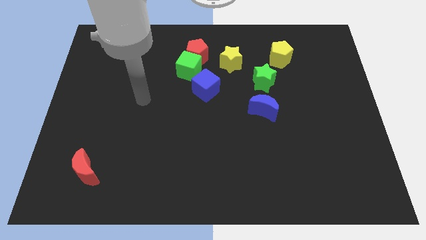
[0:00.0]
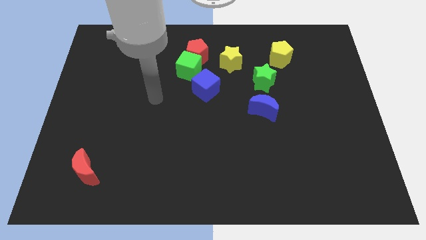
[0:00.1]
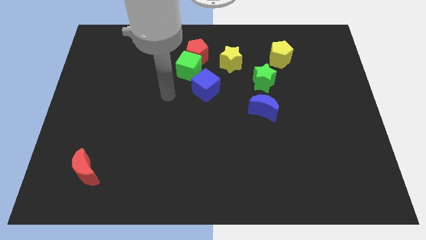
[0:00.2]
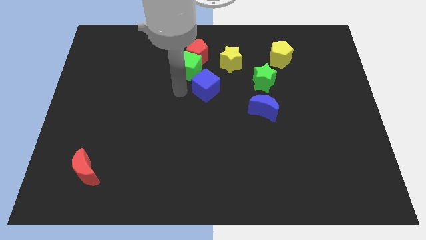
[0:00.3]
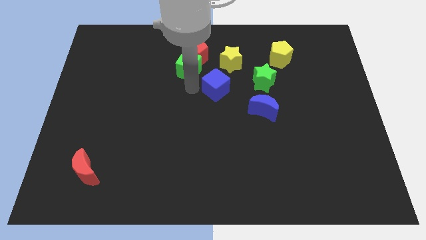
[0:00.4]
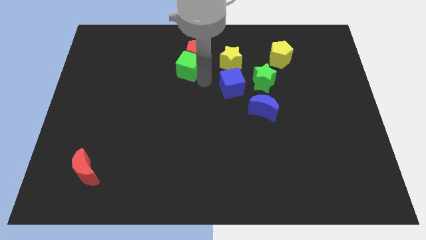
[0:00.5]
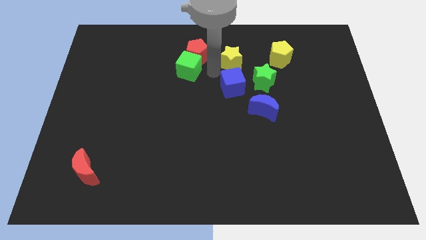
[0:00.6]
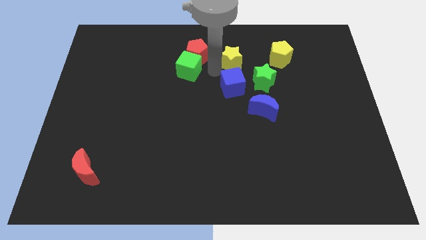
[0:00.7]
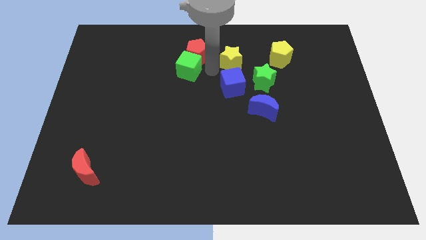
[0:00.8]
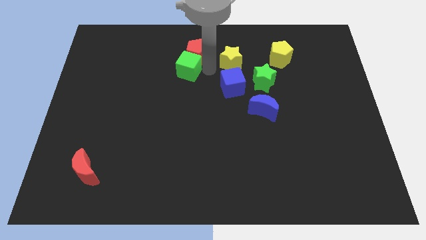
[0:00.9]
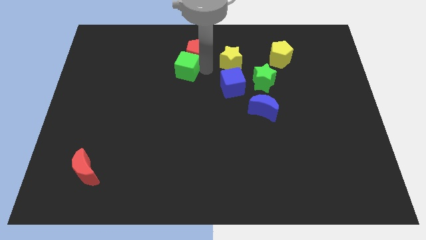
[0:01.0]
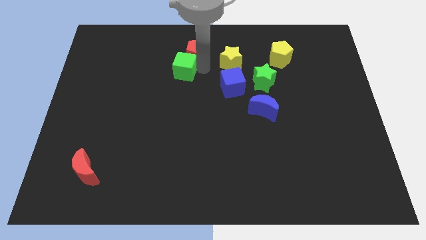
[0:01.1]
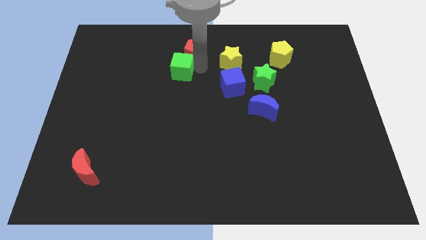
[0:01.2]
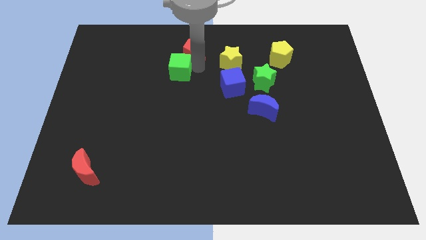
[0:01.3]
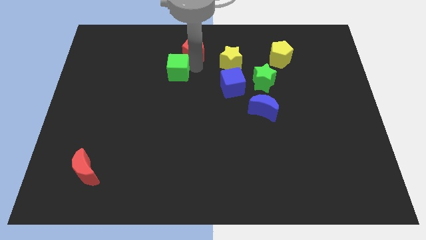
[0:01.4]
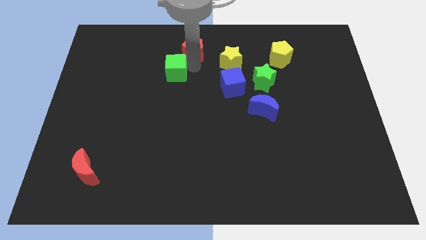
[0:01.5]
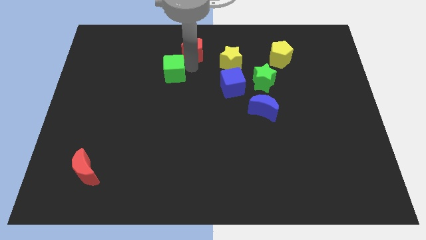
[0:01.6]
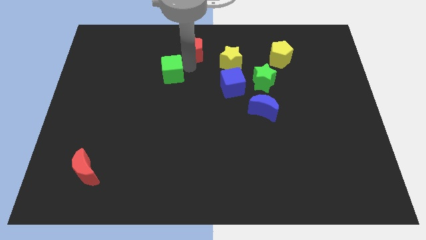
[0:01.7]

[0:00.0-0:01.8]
separate the green cube from the red pentagon and blue cube

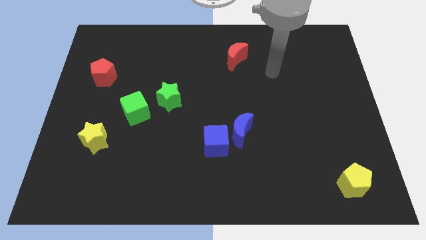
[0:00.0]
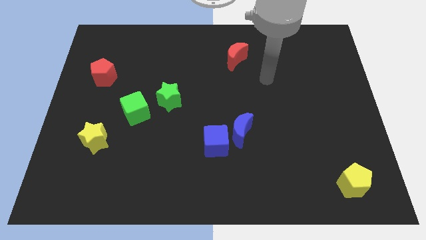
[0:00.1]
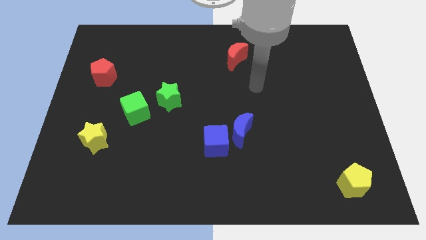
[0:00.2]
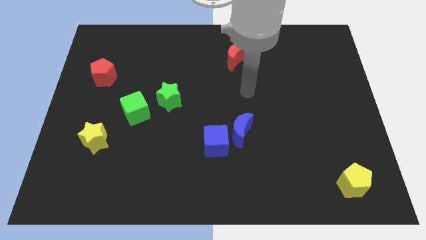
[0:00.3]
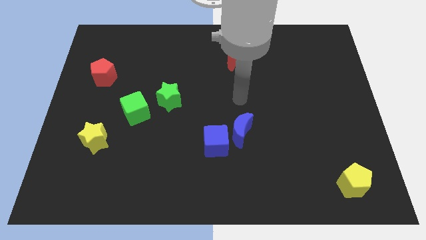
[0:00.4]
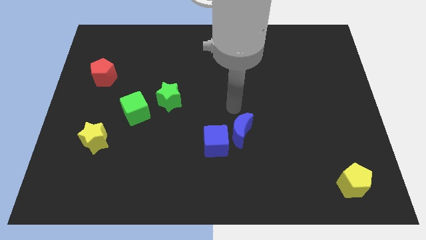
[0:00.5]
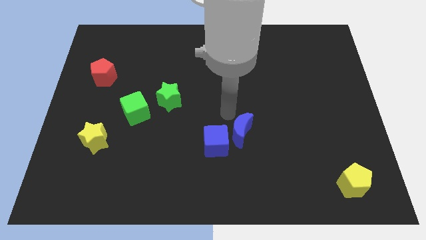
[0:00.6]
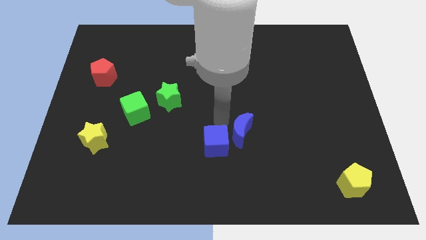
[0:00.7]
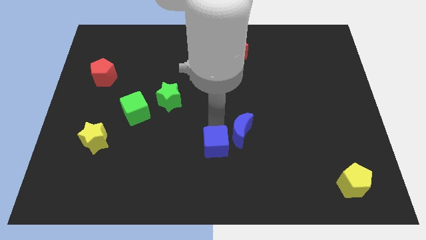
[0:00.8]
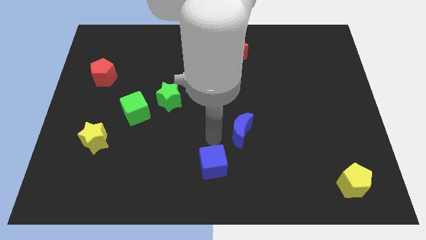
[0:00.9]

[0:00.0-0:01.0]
separate the blue moon from the blue cube

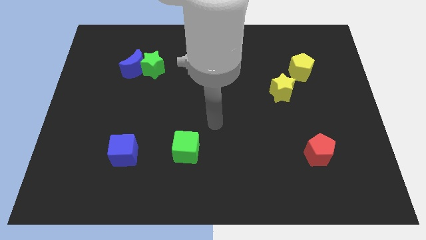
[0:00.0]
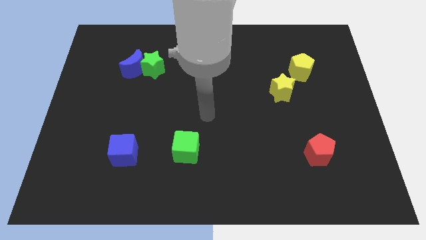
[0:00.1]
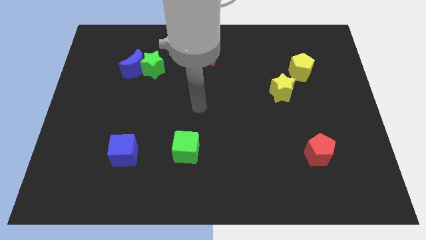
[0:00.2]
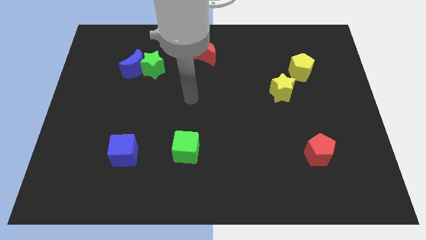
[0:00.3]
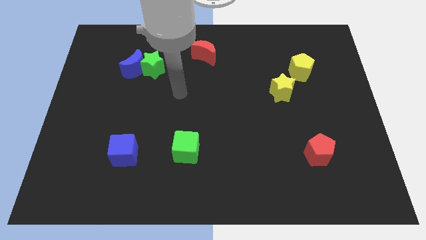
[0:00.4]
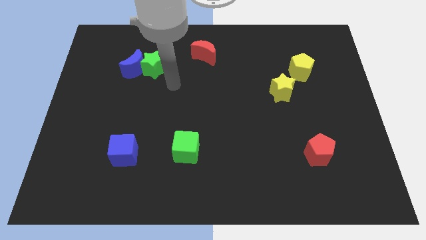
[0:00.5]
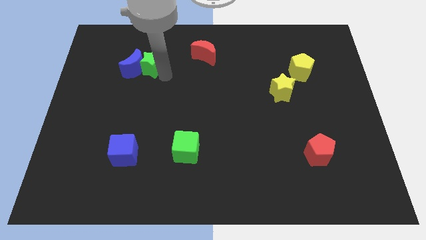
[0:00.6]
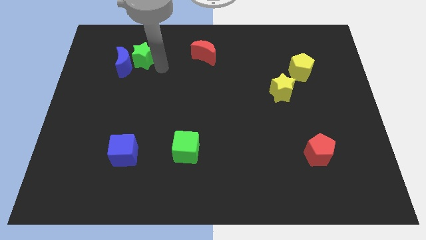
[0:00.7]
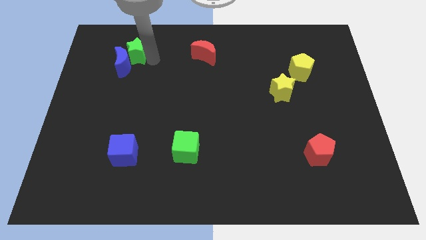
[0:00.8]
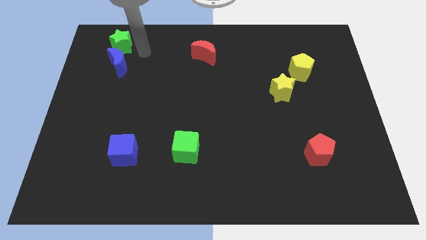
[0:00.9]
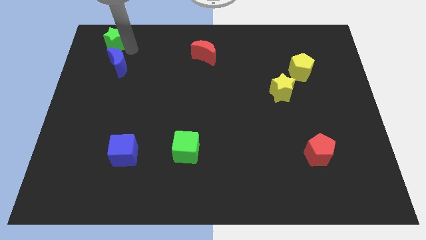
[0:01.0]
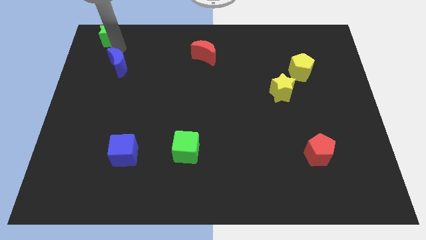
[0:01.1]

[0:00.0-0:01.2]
pull the blue moon apart from the green star

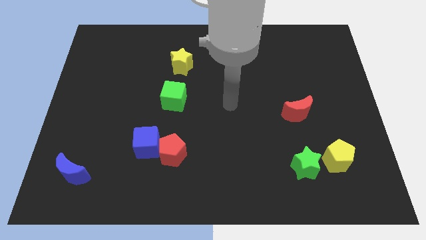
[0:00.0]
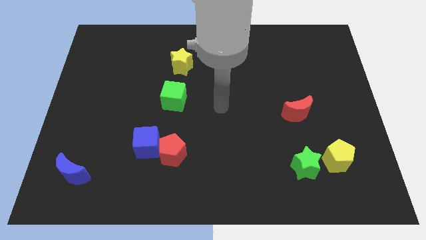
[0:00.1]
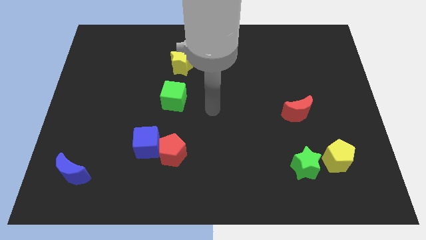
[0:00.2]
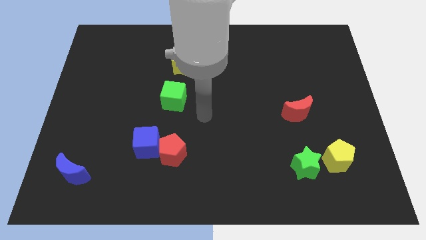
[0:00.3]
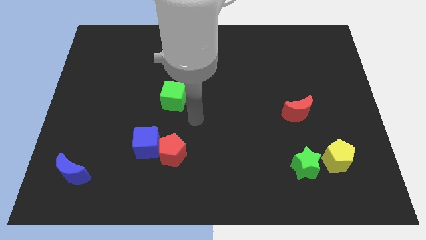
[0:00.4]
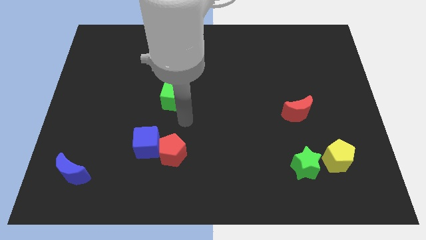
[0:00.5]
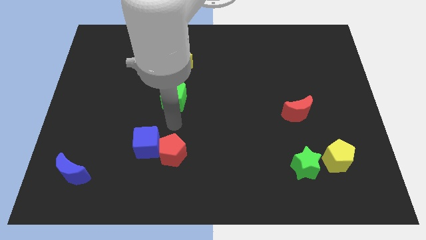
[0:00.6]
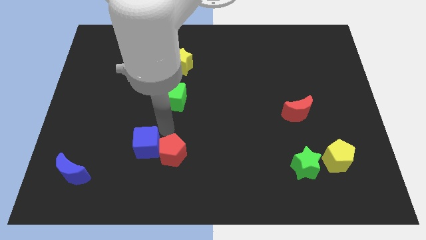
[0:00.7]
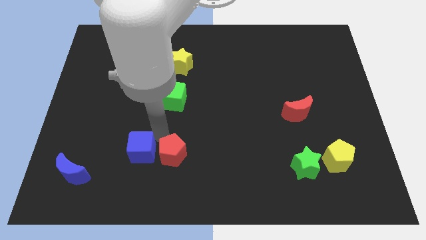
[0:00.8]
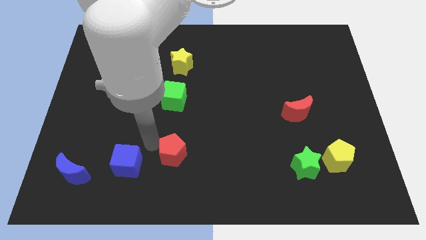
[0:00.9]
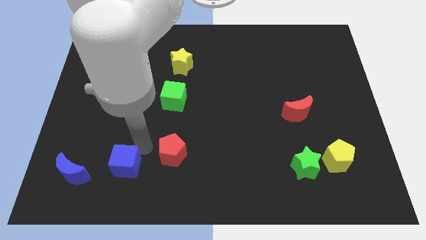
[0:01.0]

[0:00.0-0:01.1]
separate the red pentagon from the blue cube

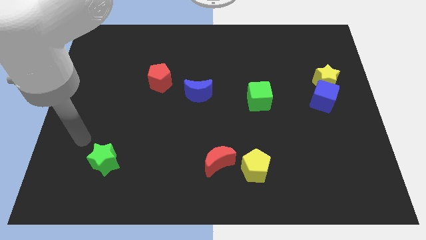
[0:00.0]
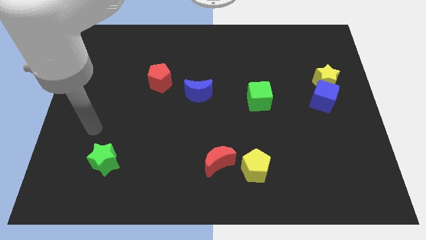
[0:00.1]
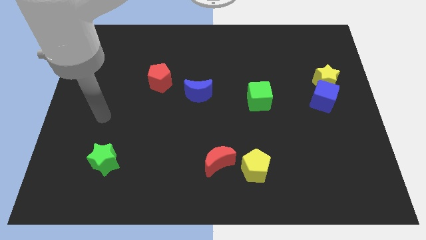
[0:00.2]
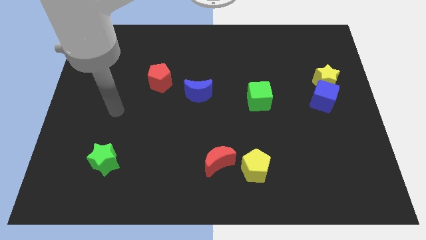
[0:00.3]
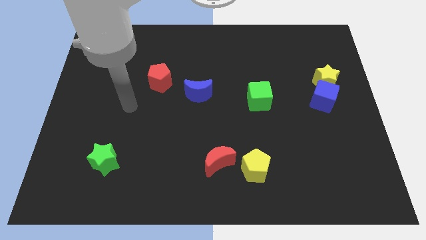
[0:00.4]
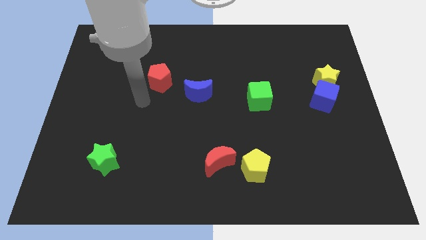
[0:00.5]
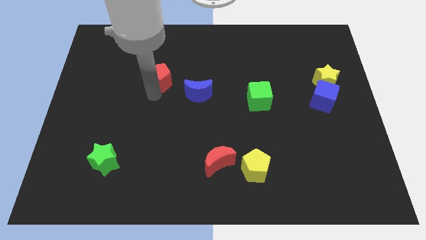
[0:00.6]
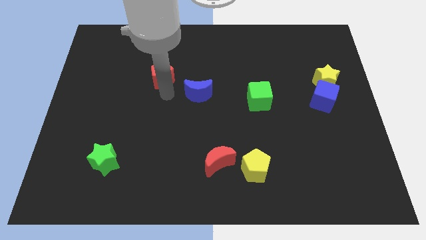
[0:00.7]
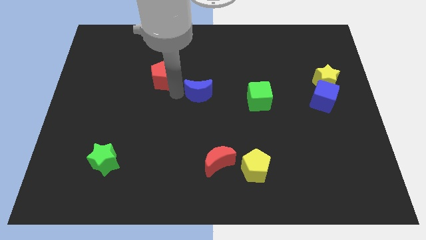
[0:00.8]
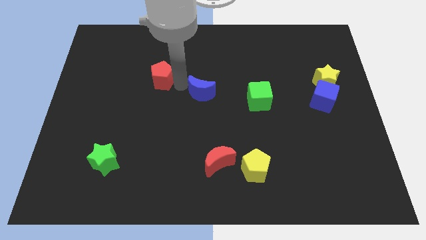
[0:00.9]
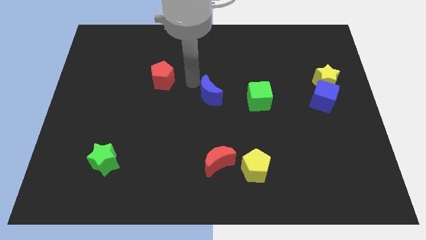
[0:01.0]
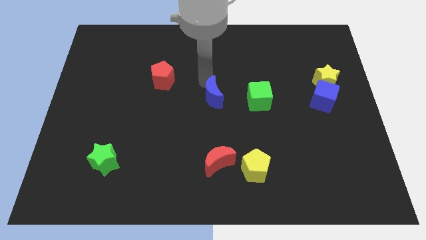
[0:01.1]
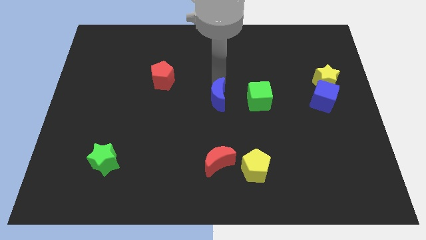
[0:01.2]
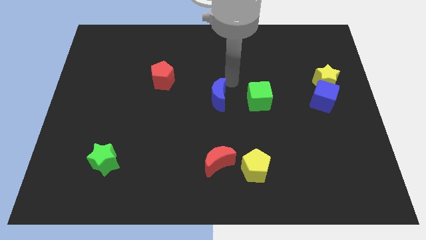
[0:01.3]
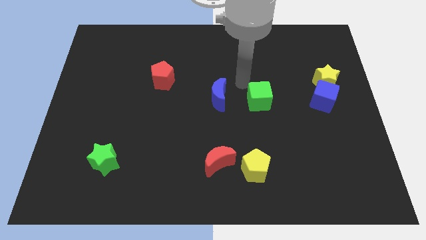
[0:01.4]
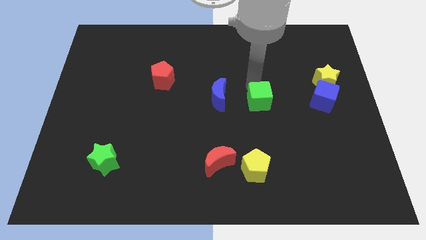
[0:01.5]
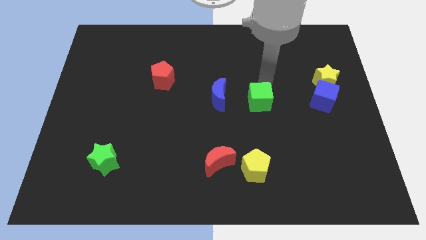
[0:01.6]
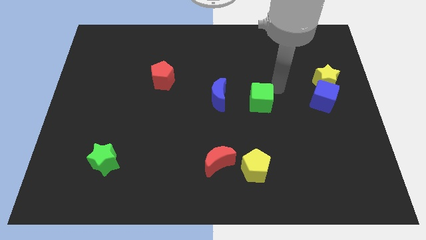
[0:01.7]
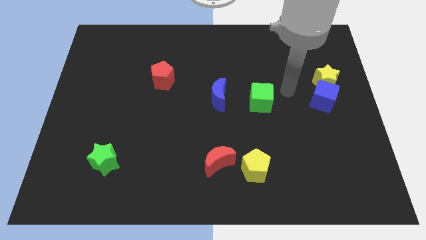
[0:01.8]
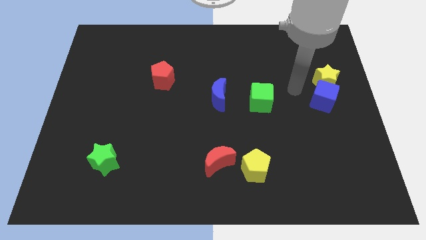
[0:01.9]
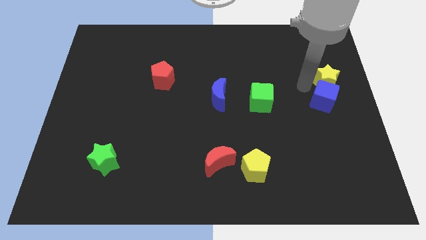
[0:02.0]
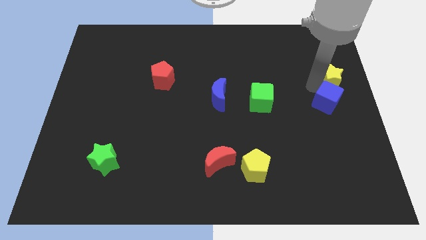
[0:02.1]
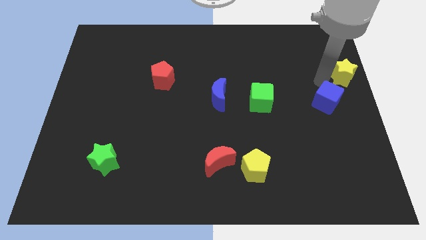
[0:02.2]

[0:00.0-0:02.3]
separate the blue cube from the yellow star

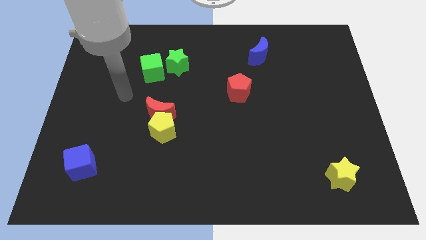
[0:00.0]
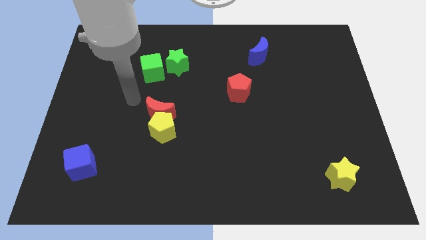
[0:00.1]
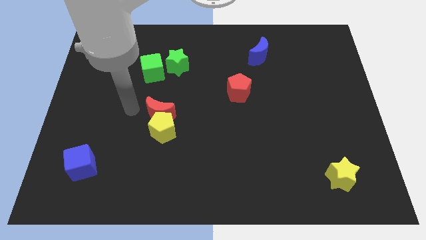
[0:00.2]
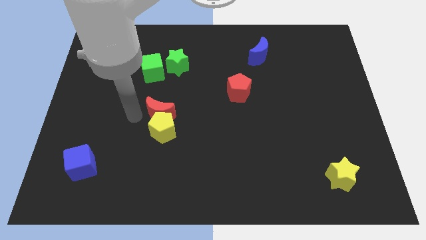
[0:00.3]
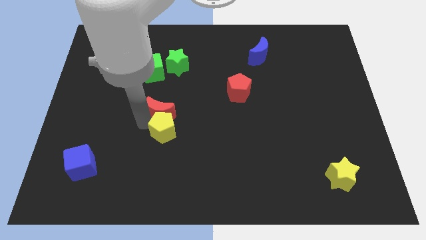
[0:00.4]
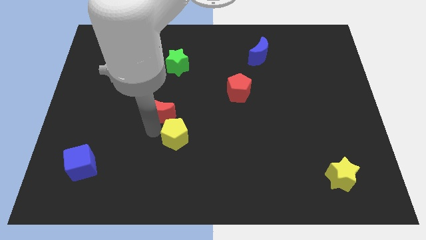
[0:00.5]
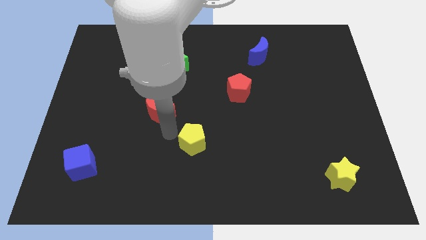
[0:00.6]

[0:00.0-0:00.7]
move the red moon away from the yellow pentagon

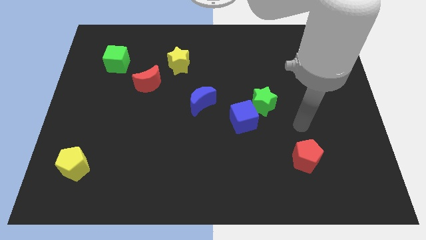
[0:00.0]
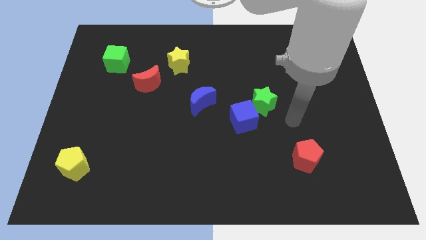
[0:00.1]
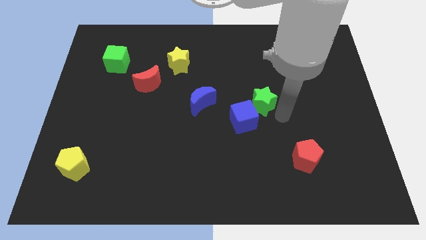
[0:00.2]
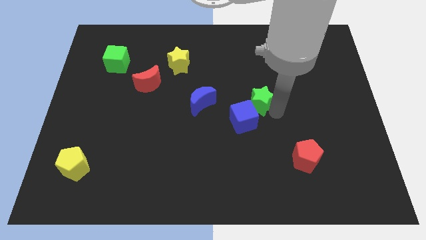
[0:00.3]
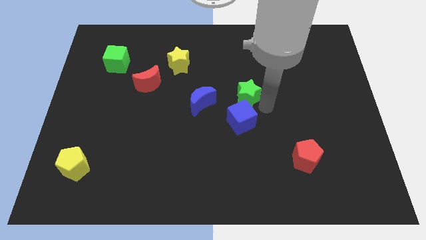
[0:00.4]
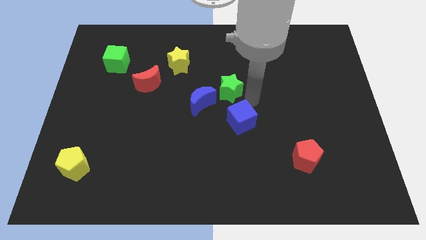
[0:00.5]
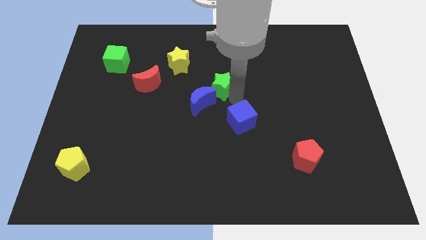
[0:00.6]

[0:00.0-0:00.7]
separate the blue cube from the green star

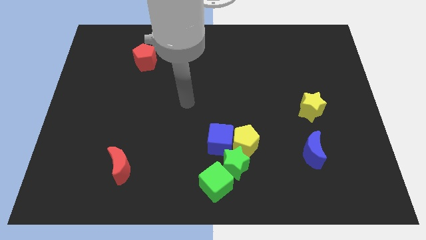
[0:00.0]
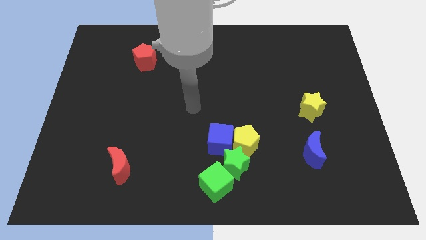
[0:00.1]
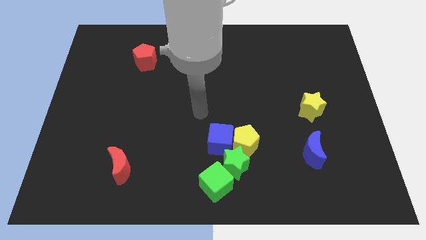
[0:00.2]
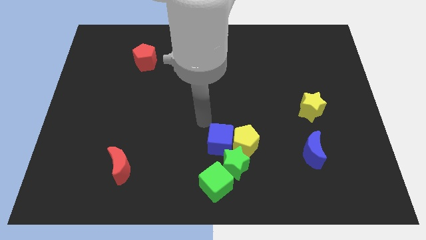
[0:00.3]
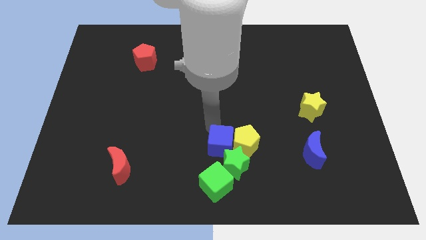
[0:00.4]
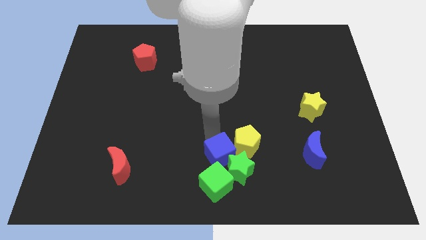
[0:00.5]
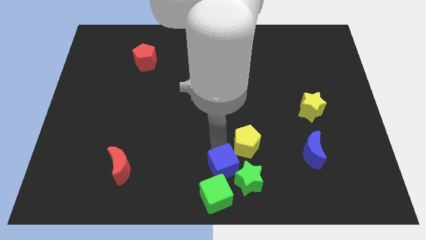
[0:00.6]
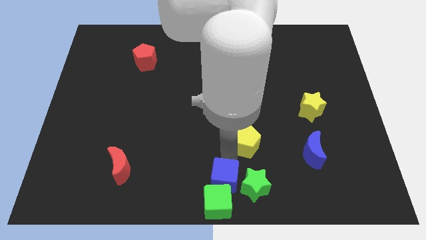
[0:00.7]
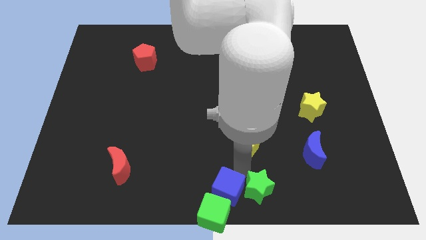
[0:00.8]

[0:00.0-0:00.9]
move the yellow pentagon away from the blue cube and green star
